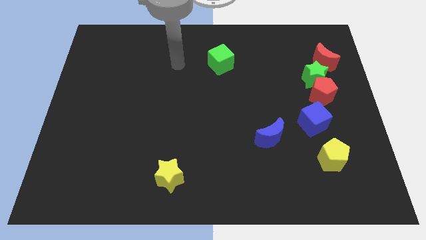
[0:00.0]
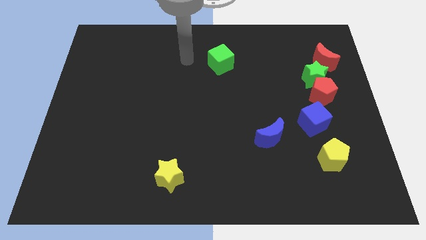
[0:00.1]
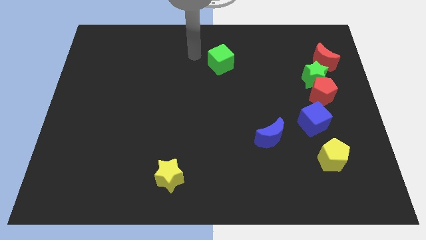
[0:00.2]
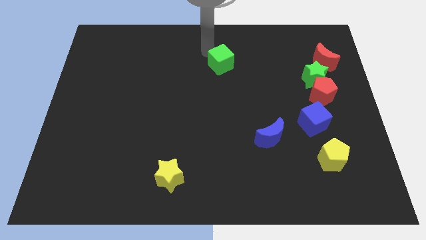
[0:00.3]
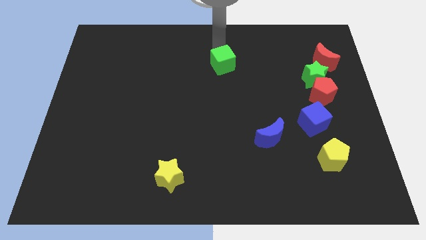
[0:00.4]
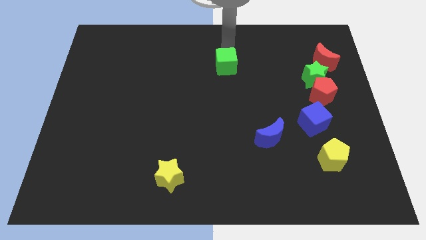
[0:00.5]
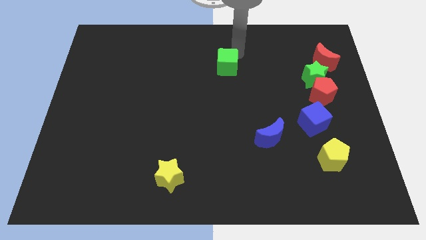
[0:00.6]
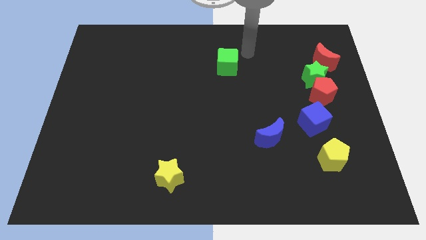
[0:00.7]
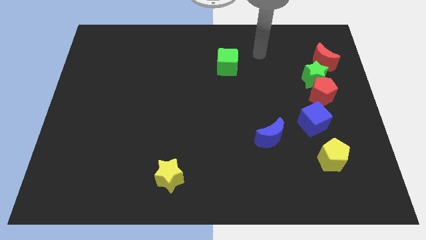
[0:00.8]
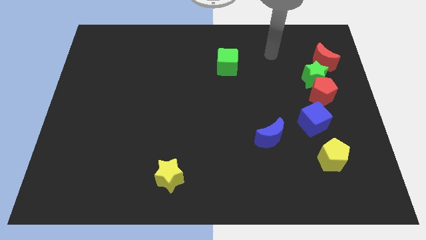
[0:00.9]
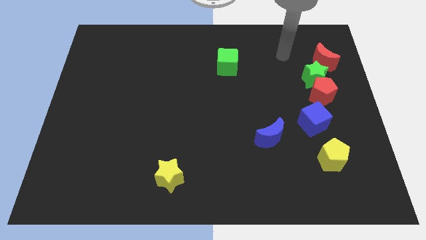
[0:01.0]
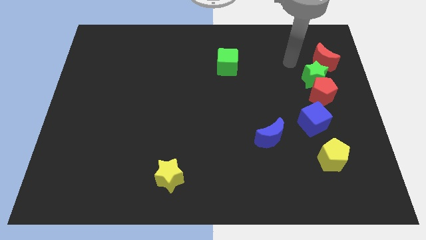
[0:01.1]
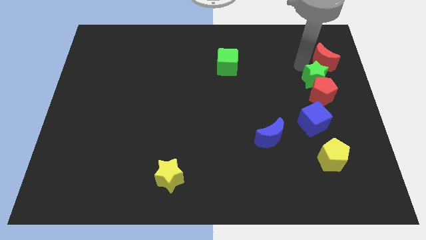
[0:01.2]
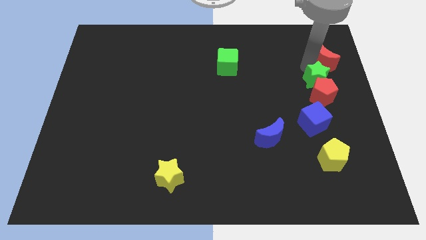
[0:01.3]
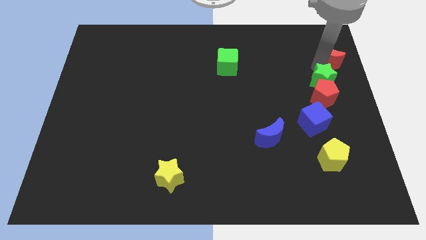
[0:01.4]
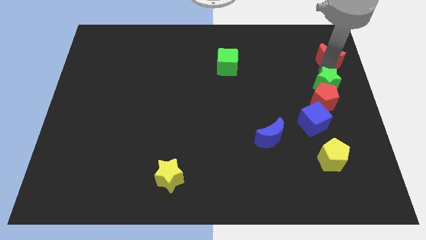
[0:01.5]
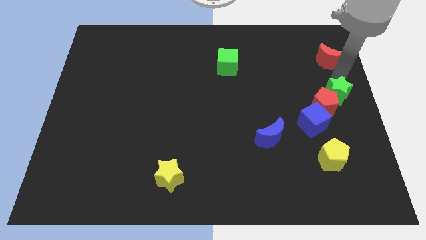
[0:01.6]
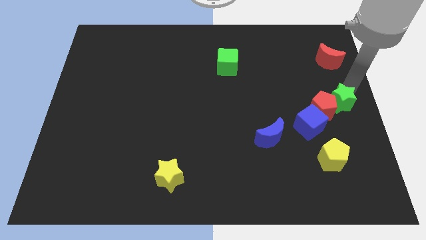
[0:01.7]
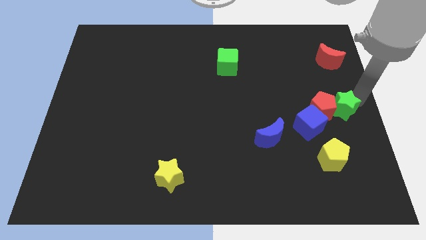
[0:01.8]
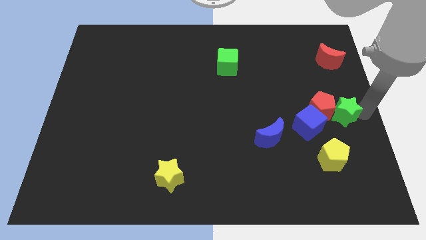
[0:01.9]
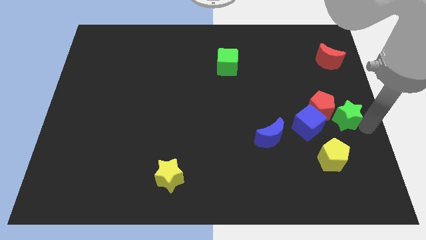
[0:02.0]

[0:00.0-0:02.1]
pull the green star apart from the red pentagon and red moon

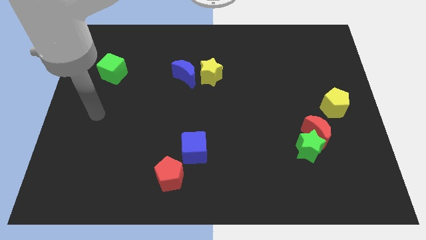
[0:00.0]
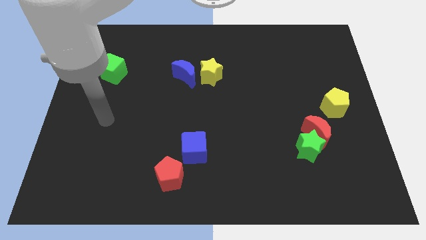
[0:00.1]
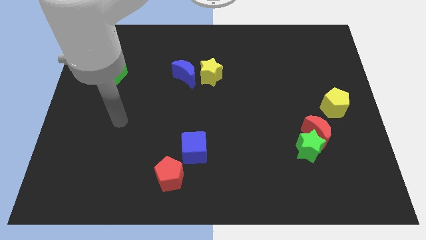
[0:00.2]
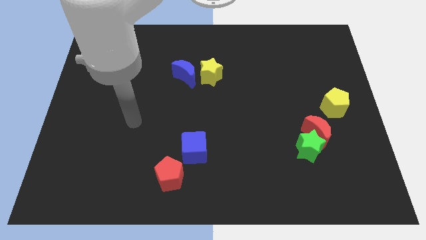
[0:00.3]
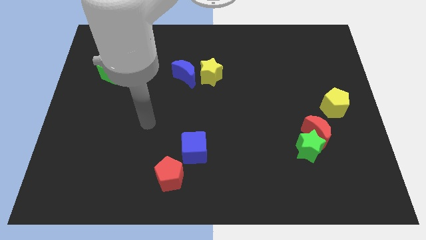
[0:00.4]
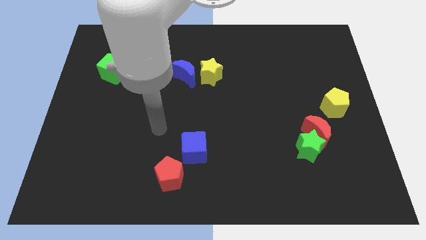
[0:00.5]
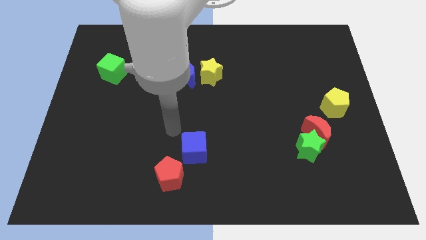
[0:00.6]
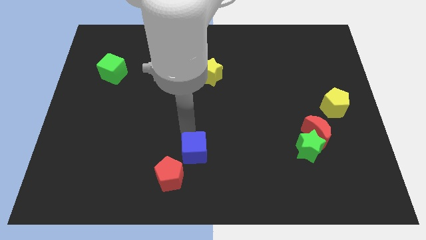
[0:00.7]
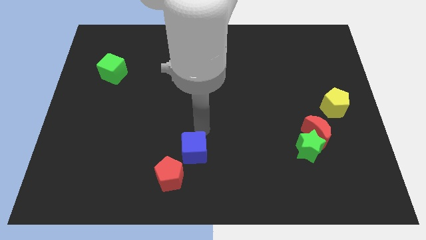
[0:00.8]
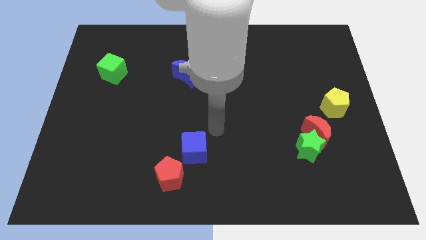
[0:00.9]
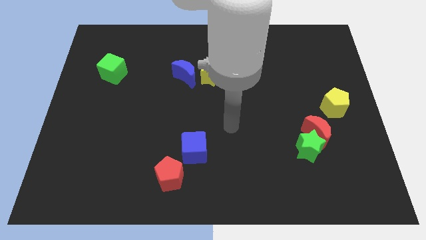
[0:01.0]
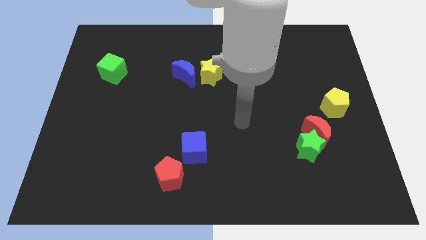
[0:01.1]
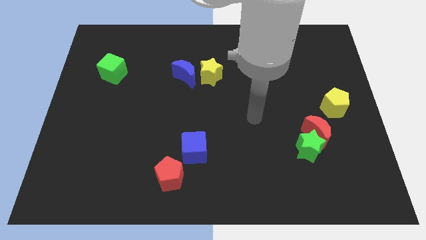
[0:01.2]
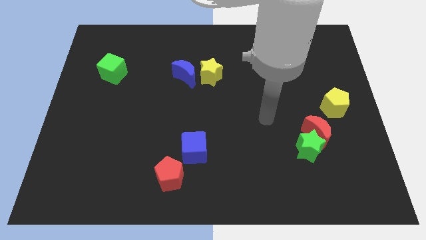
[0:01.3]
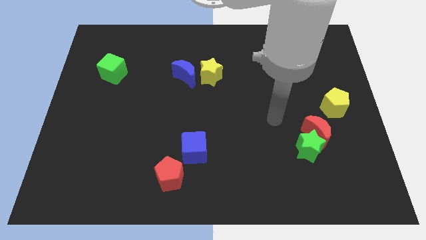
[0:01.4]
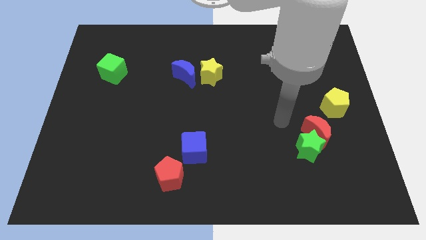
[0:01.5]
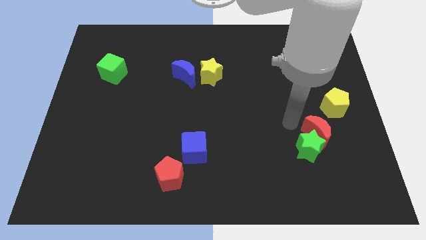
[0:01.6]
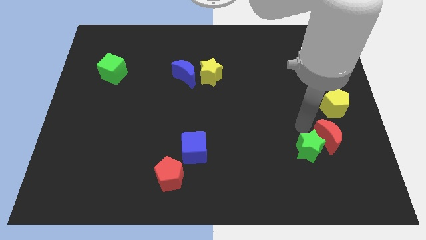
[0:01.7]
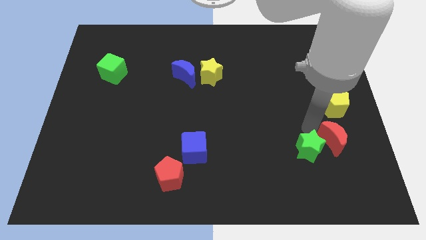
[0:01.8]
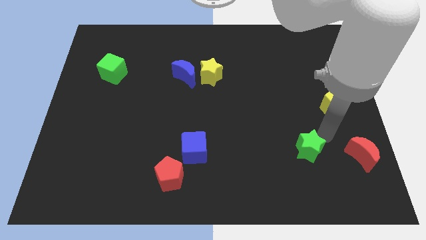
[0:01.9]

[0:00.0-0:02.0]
separate the green star from the red moon

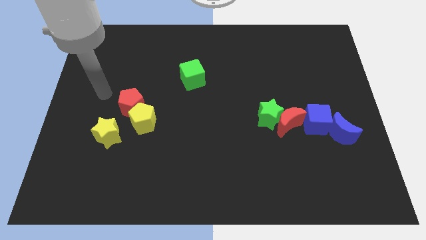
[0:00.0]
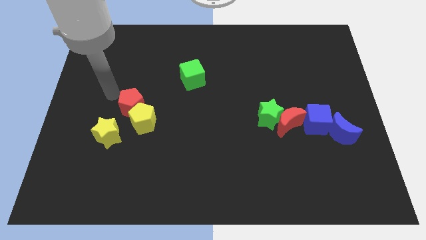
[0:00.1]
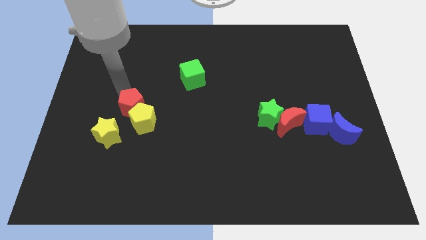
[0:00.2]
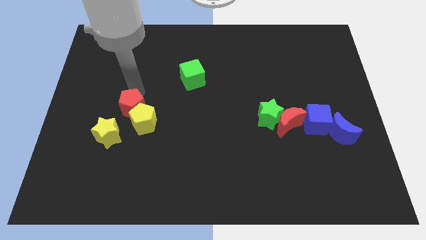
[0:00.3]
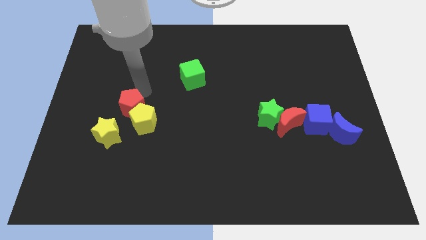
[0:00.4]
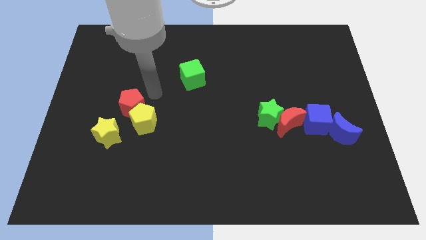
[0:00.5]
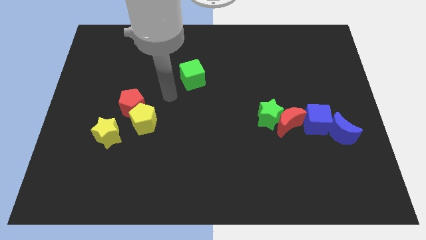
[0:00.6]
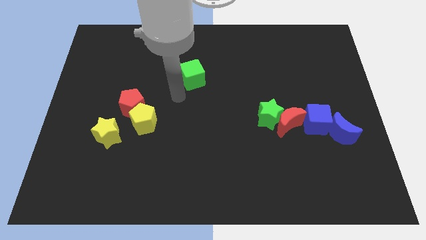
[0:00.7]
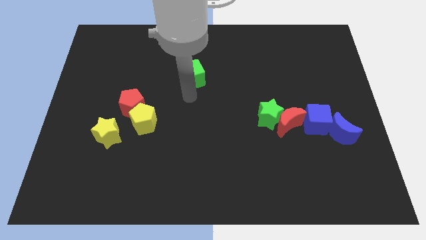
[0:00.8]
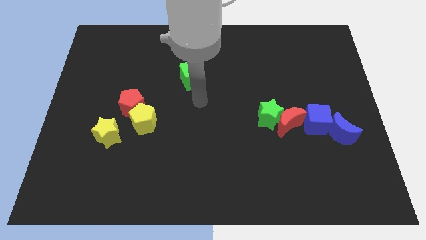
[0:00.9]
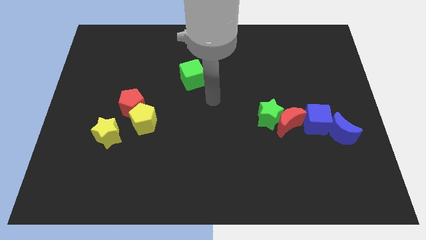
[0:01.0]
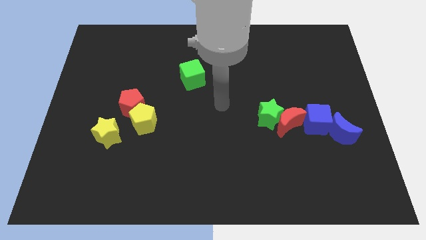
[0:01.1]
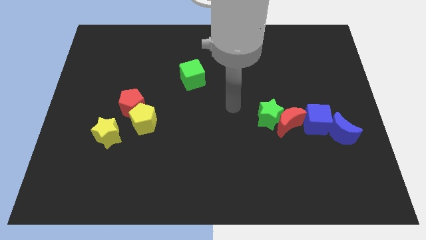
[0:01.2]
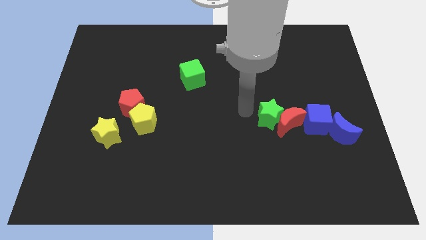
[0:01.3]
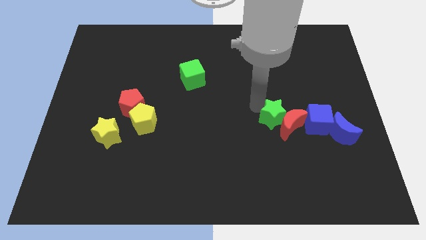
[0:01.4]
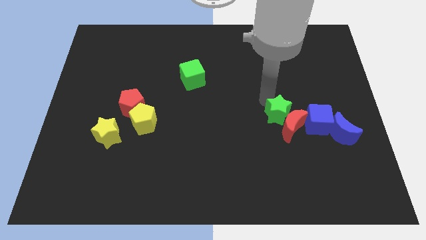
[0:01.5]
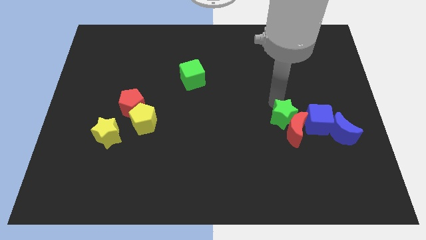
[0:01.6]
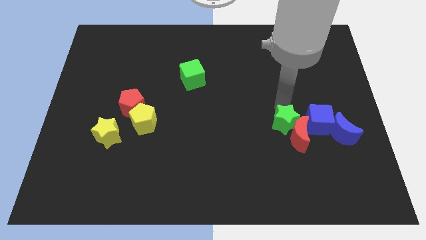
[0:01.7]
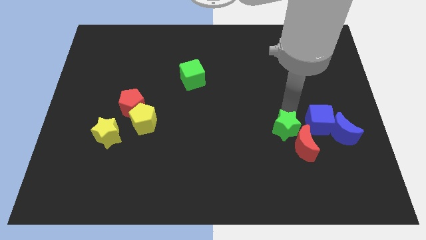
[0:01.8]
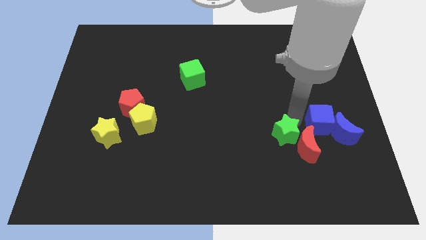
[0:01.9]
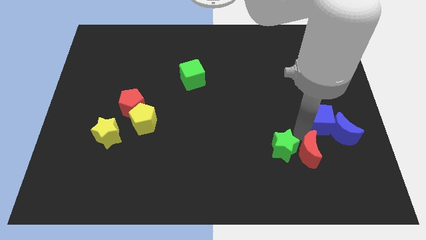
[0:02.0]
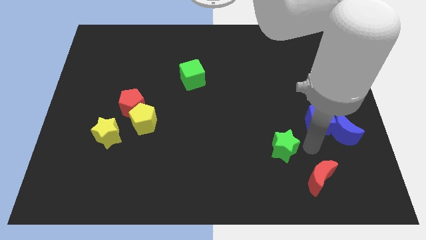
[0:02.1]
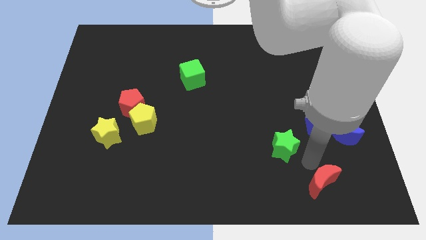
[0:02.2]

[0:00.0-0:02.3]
pull the green star apart from the red moon

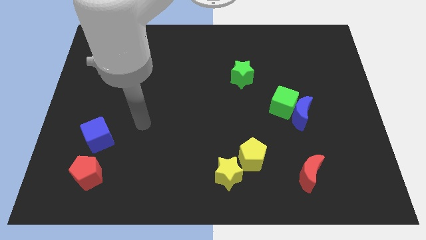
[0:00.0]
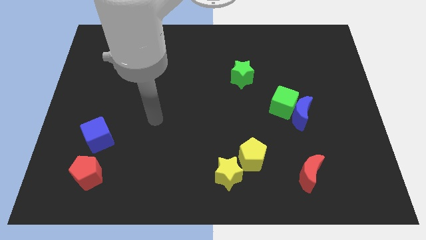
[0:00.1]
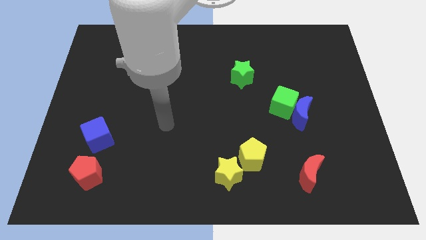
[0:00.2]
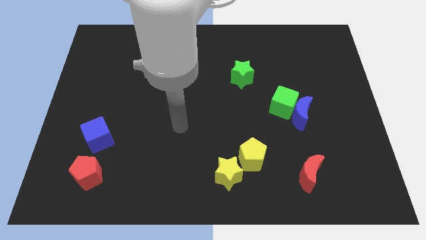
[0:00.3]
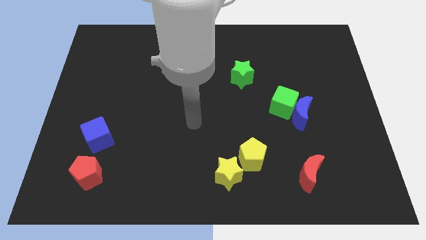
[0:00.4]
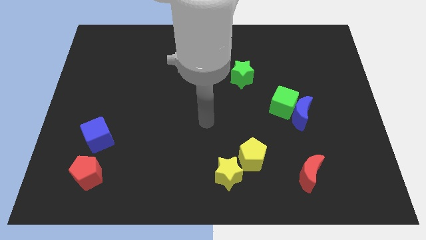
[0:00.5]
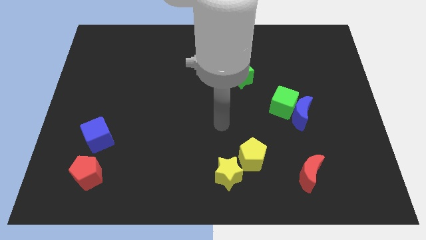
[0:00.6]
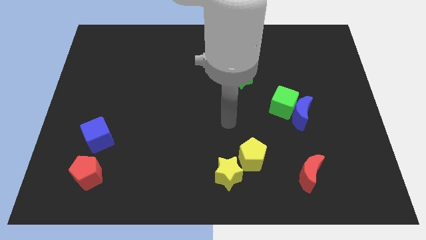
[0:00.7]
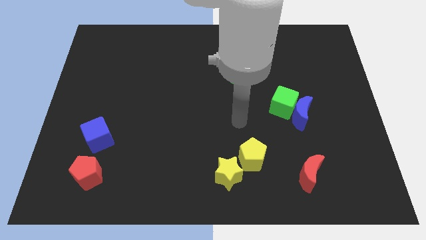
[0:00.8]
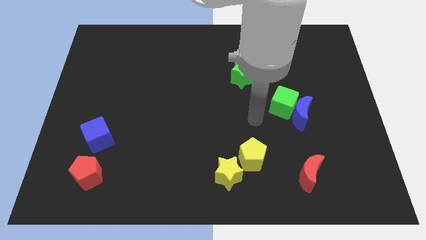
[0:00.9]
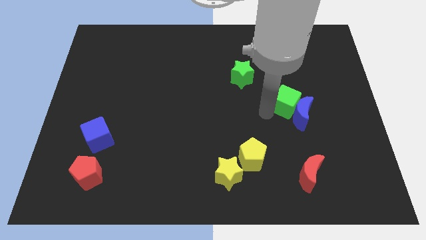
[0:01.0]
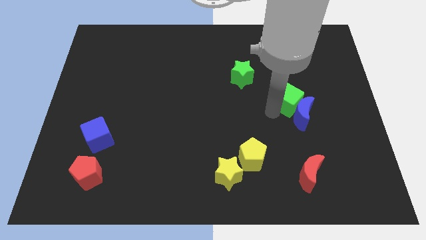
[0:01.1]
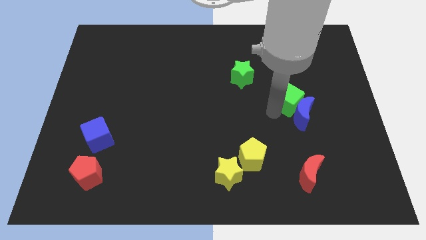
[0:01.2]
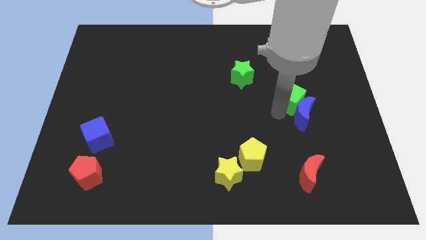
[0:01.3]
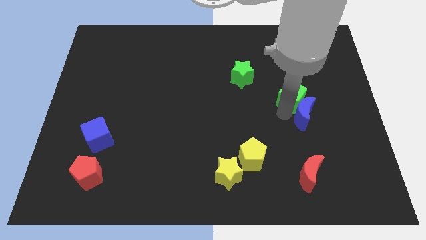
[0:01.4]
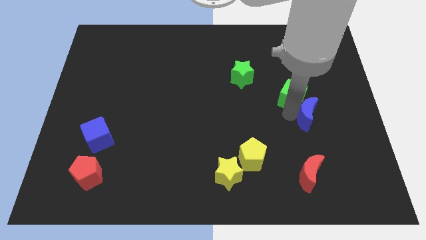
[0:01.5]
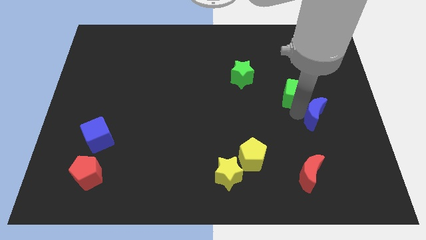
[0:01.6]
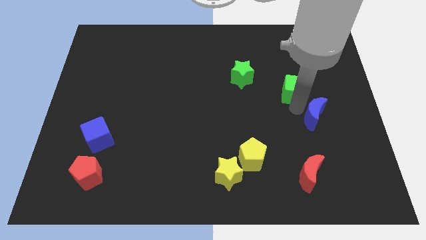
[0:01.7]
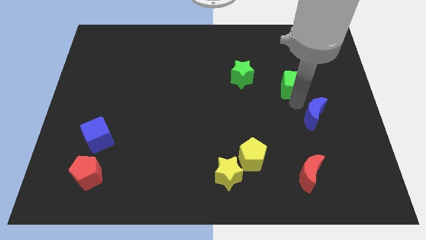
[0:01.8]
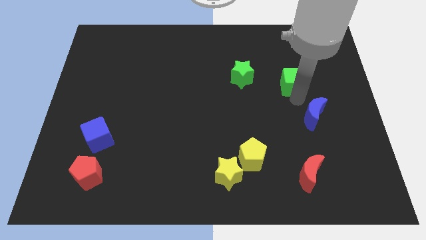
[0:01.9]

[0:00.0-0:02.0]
separate the blue moon from the green cube

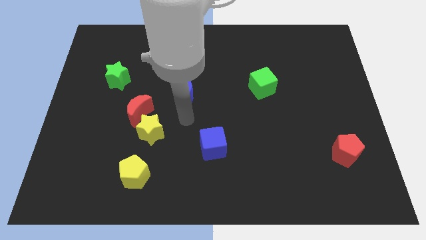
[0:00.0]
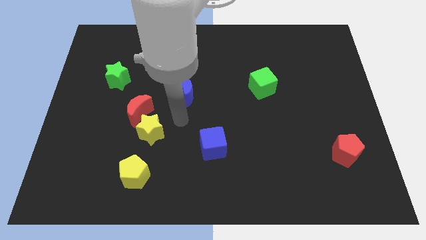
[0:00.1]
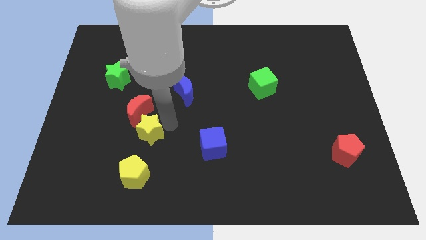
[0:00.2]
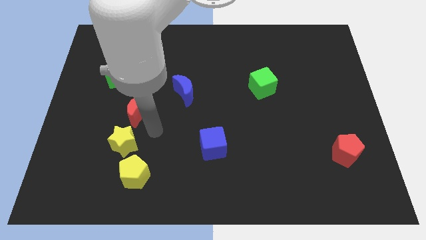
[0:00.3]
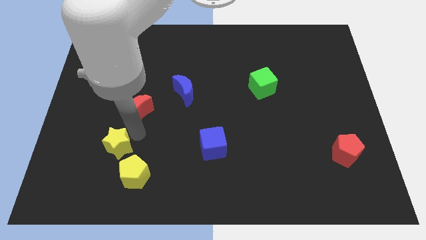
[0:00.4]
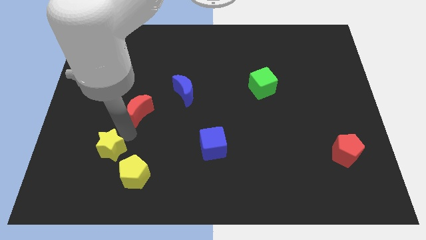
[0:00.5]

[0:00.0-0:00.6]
move the red moon away from the yellow star

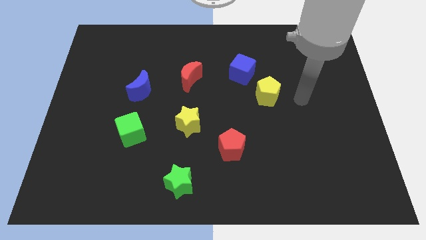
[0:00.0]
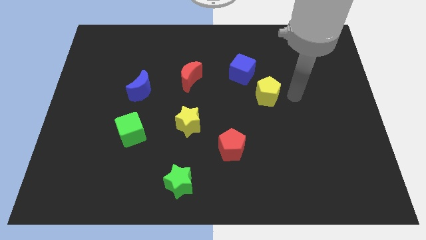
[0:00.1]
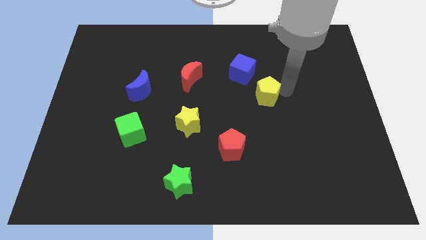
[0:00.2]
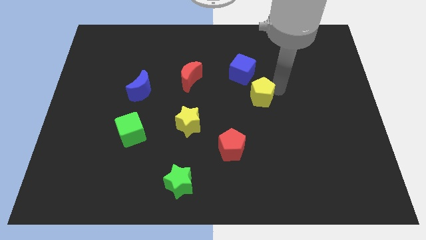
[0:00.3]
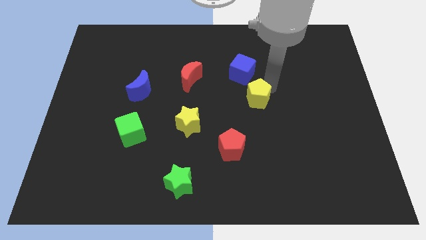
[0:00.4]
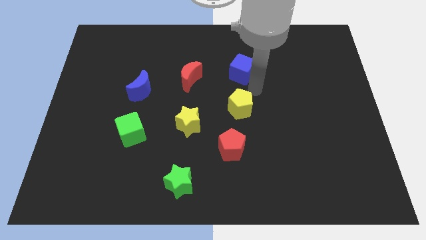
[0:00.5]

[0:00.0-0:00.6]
separate the blue cube from the yellow pentagon
